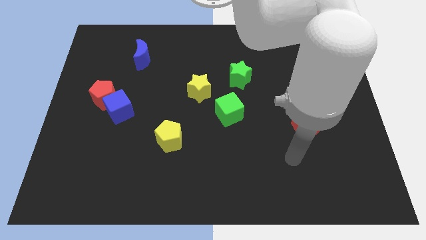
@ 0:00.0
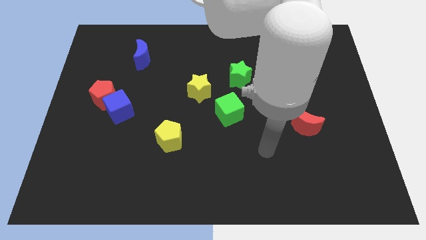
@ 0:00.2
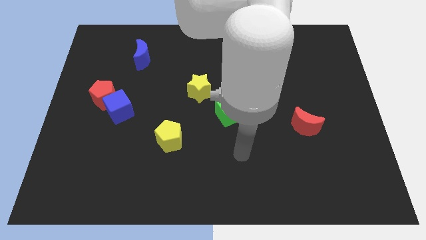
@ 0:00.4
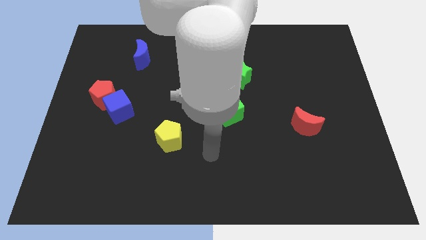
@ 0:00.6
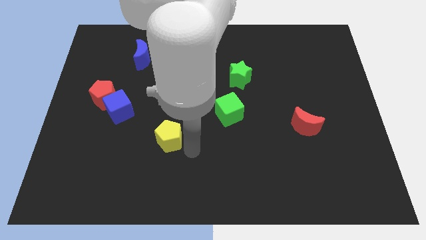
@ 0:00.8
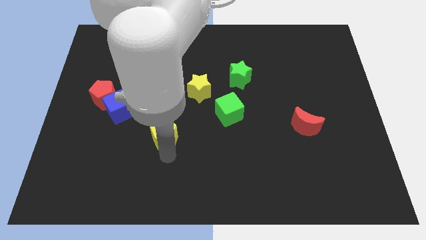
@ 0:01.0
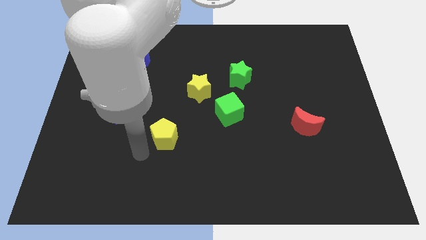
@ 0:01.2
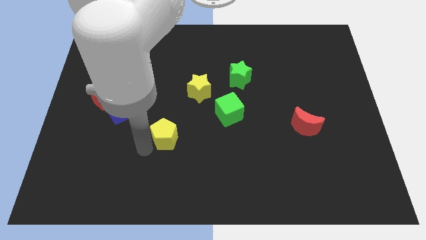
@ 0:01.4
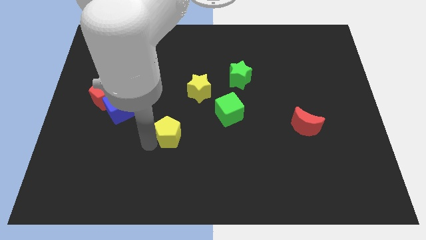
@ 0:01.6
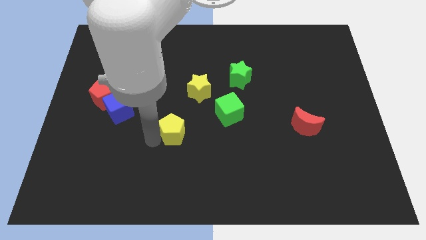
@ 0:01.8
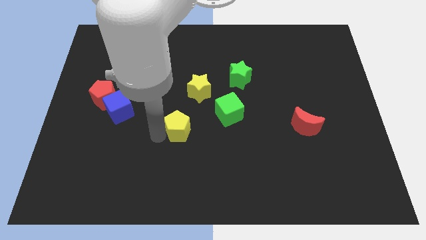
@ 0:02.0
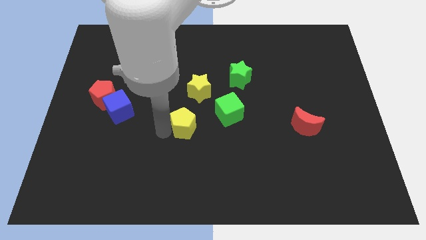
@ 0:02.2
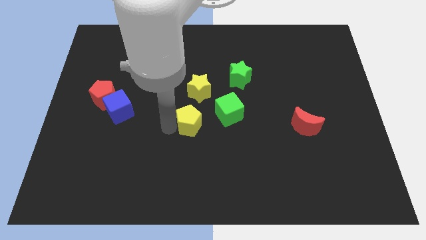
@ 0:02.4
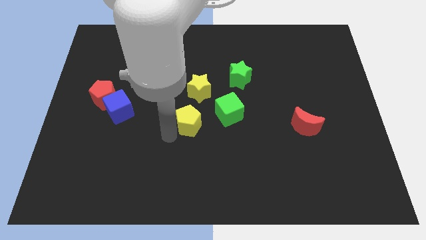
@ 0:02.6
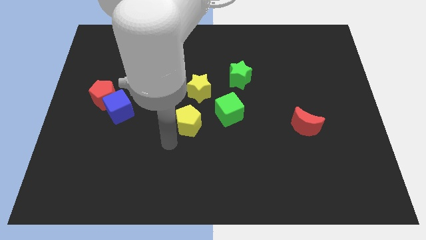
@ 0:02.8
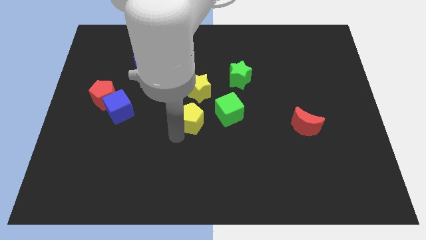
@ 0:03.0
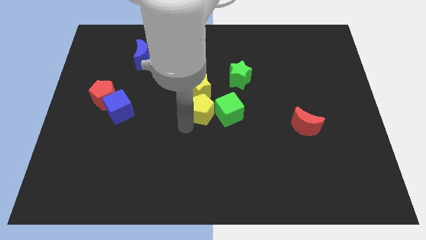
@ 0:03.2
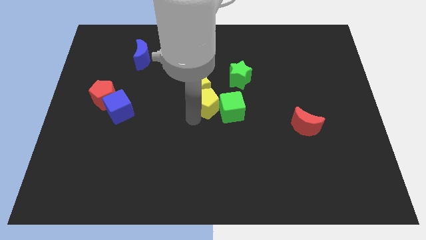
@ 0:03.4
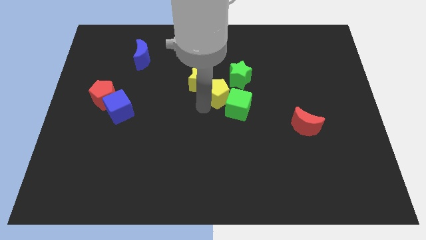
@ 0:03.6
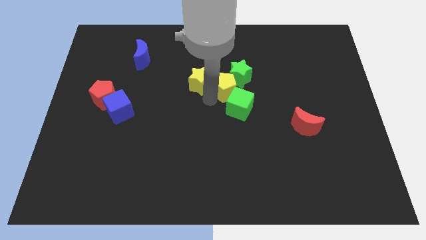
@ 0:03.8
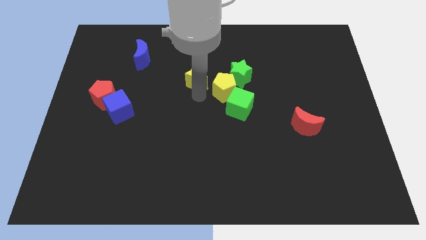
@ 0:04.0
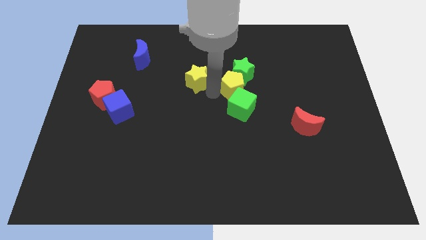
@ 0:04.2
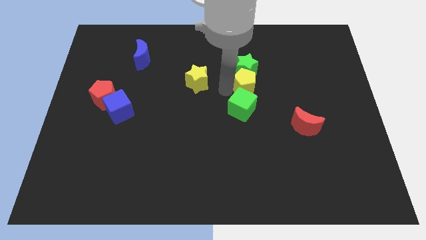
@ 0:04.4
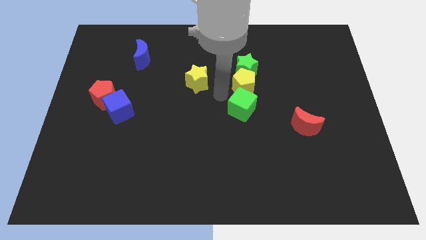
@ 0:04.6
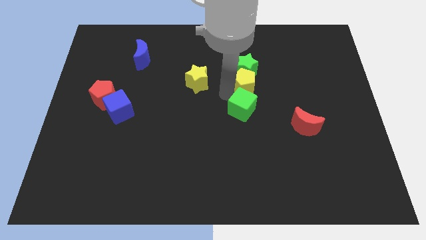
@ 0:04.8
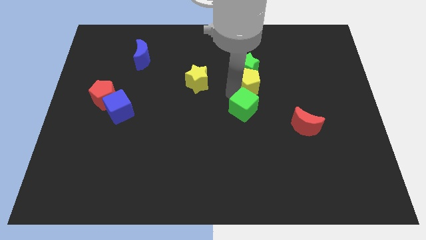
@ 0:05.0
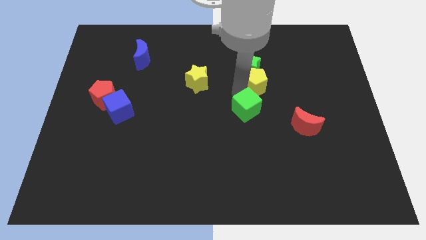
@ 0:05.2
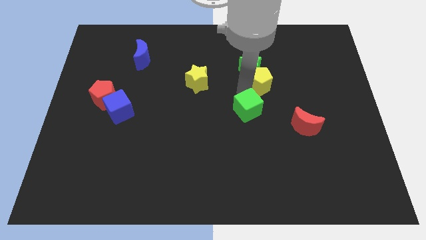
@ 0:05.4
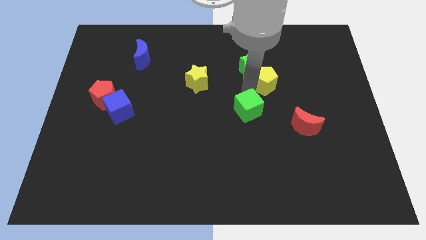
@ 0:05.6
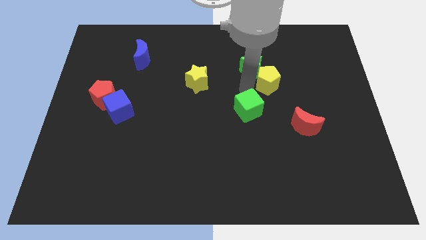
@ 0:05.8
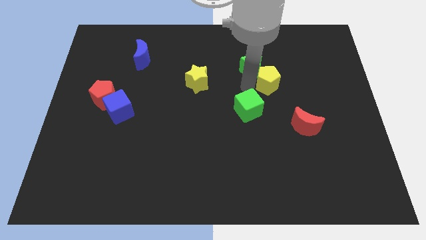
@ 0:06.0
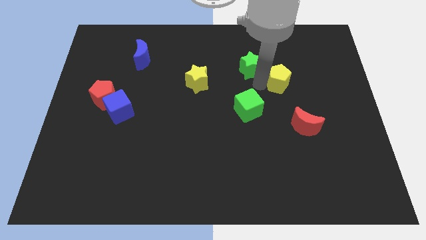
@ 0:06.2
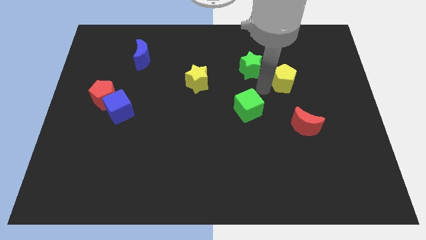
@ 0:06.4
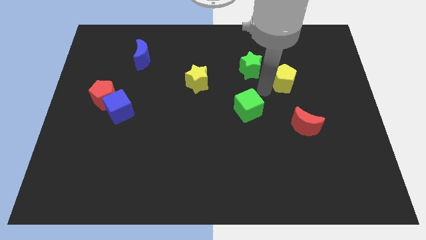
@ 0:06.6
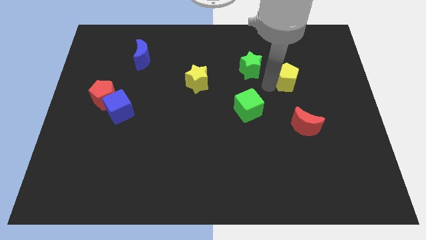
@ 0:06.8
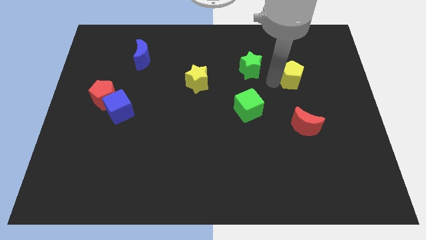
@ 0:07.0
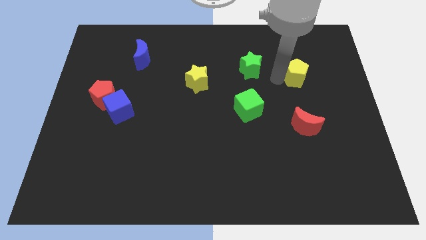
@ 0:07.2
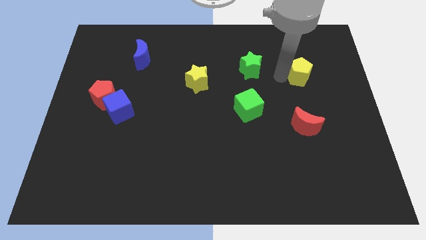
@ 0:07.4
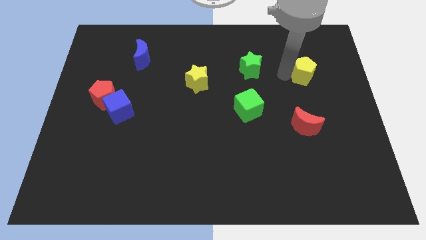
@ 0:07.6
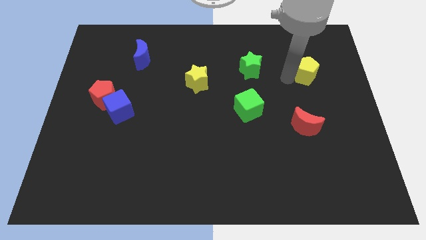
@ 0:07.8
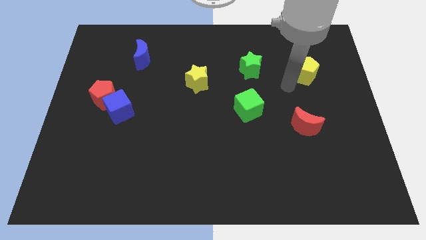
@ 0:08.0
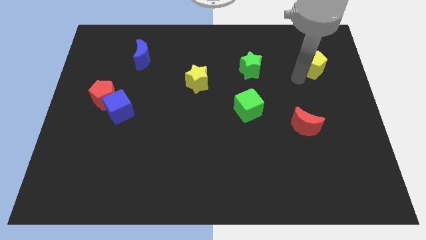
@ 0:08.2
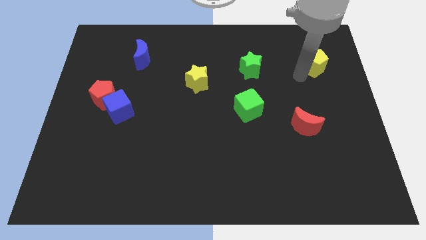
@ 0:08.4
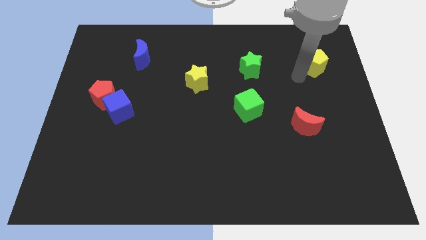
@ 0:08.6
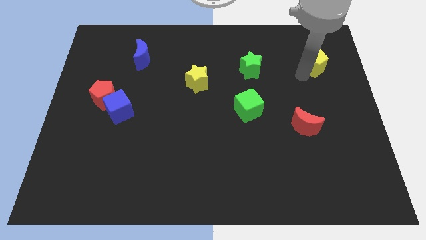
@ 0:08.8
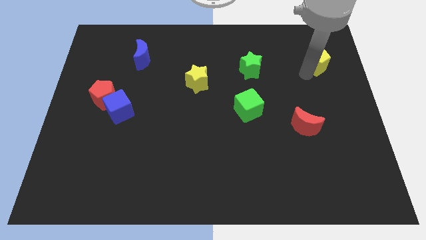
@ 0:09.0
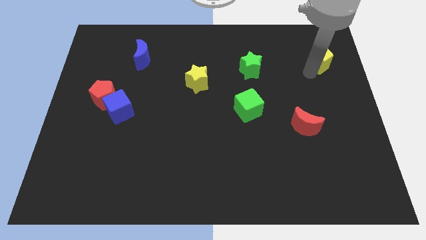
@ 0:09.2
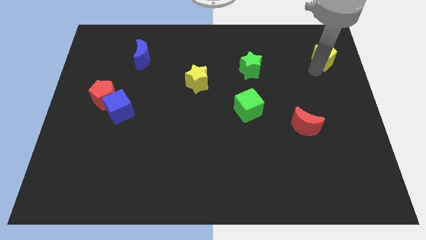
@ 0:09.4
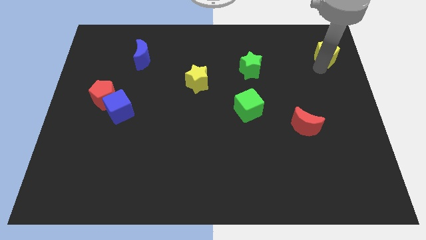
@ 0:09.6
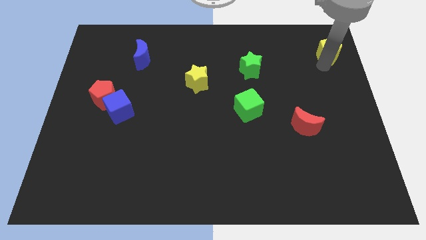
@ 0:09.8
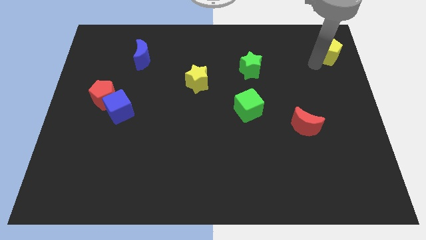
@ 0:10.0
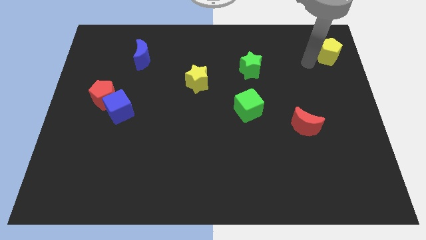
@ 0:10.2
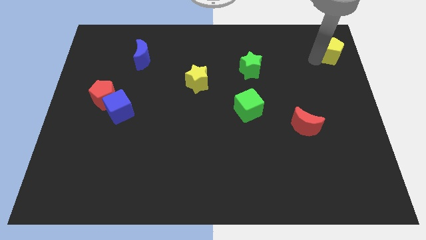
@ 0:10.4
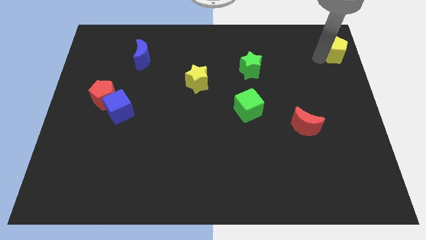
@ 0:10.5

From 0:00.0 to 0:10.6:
put the yellow pentagon to the top right corner
